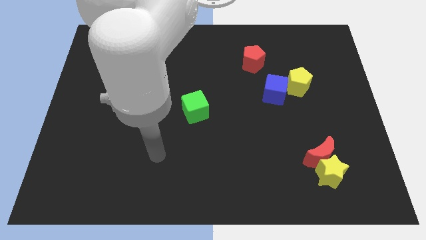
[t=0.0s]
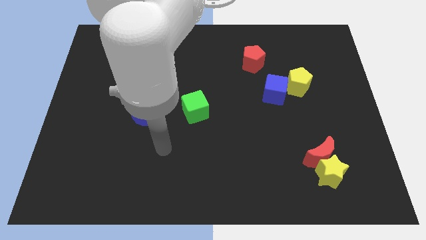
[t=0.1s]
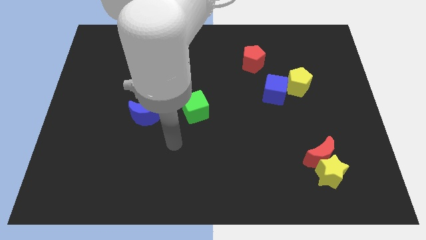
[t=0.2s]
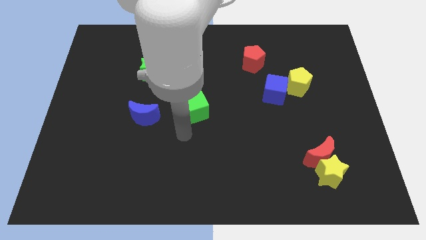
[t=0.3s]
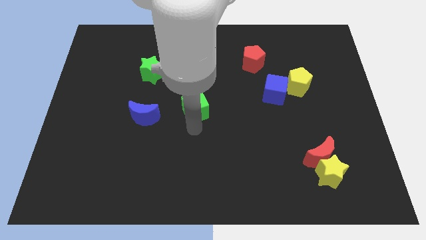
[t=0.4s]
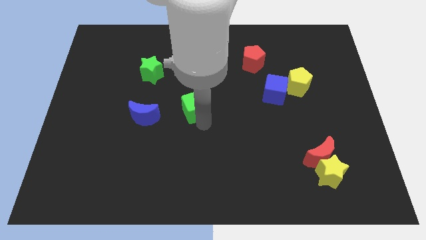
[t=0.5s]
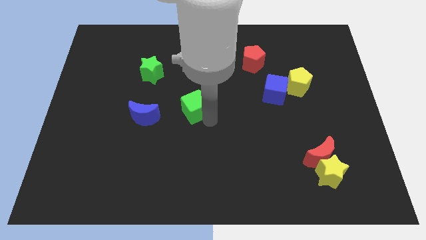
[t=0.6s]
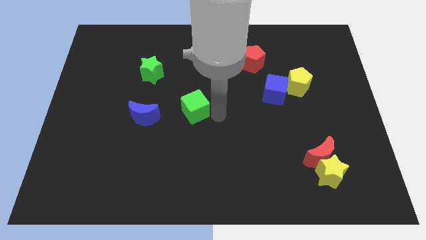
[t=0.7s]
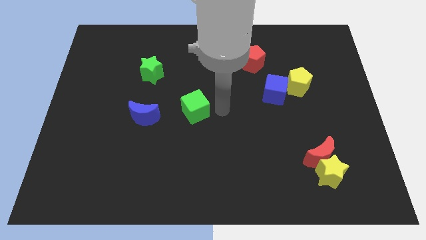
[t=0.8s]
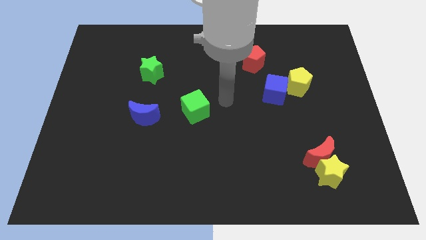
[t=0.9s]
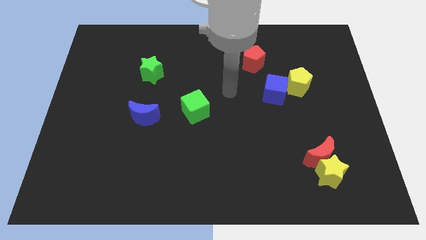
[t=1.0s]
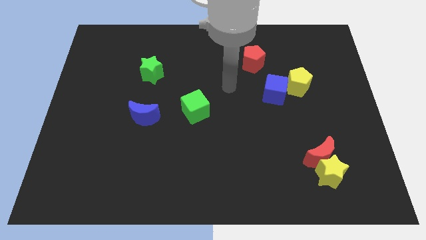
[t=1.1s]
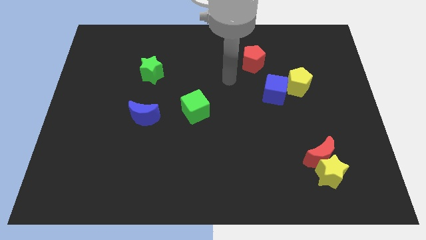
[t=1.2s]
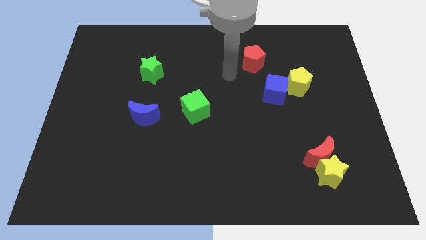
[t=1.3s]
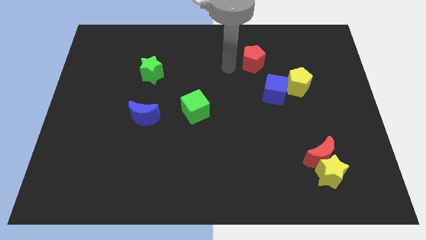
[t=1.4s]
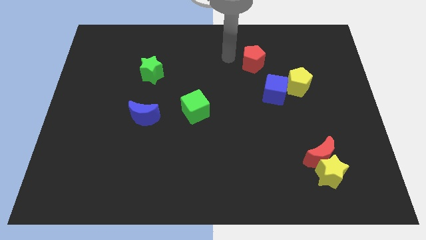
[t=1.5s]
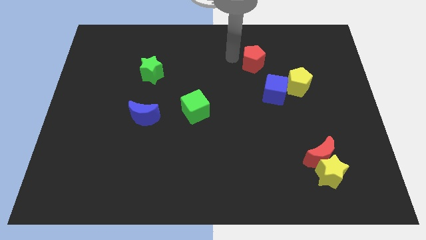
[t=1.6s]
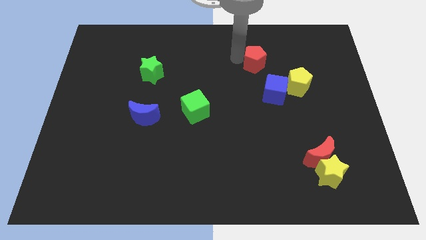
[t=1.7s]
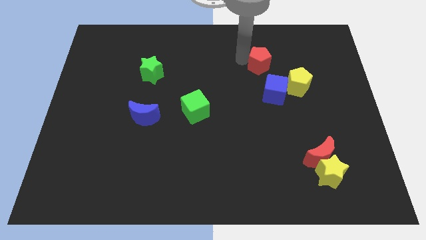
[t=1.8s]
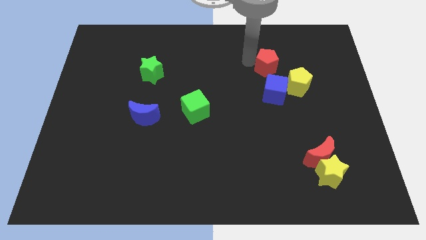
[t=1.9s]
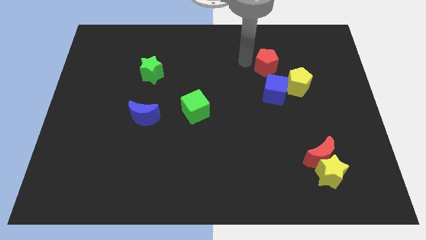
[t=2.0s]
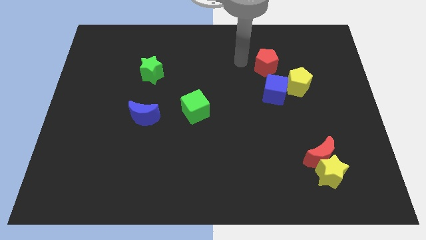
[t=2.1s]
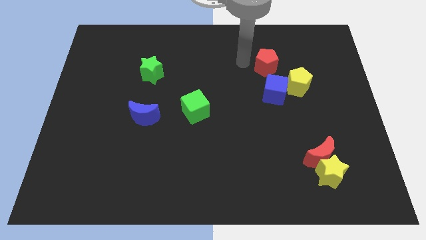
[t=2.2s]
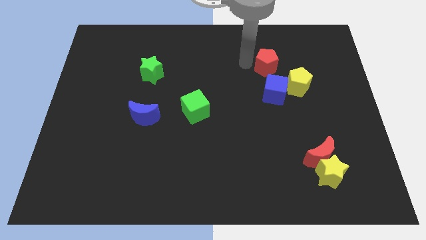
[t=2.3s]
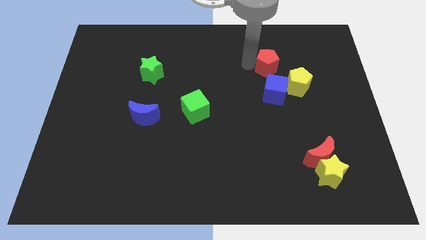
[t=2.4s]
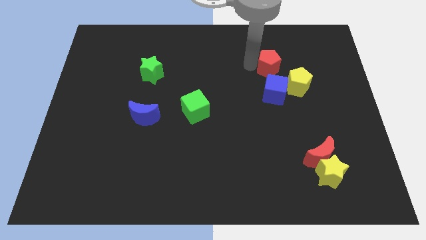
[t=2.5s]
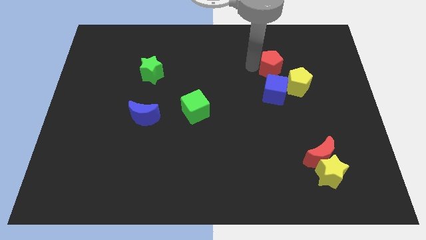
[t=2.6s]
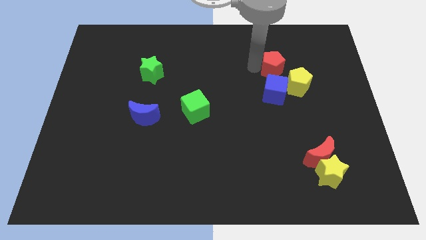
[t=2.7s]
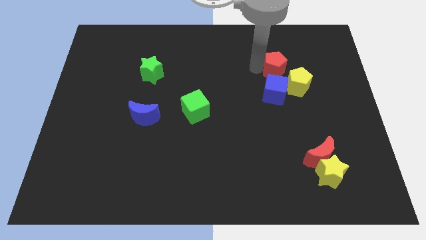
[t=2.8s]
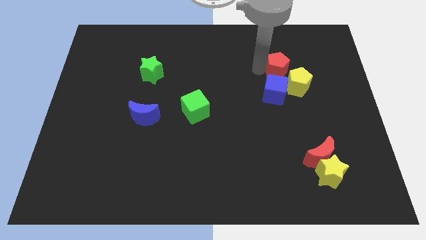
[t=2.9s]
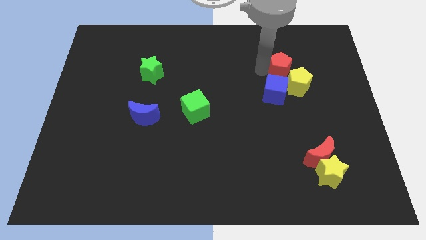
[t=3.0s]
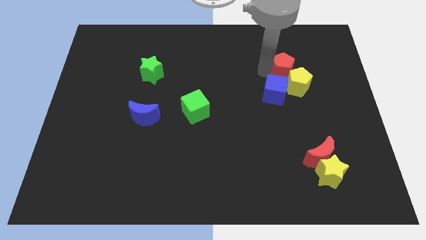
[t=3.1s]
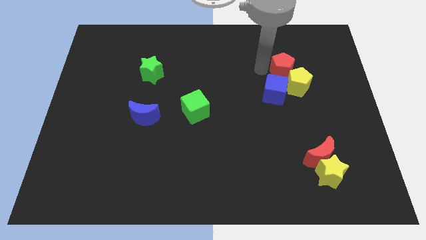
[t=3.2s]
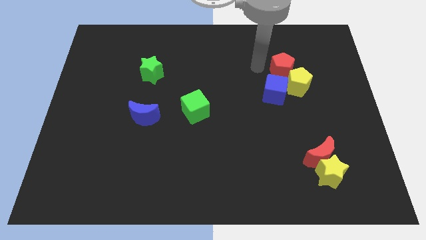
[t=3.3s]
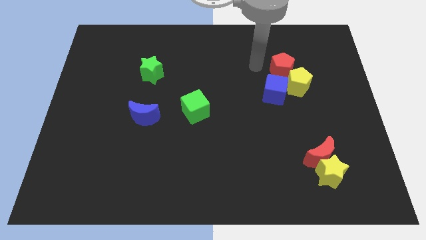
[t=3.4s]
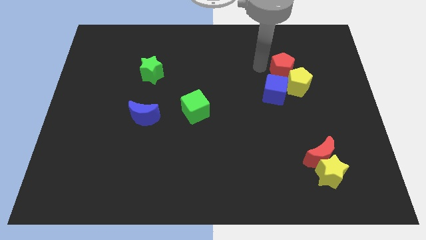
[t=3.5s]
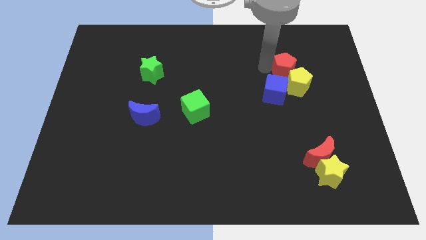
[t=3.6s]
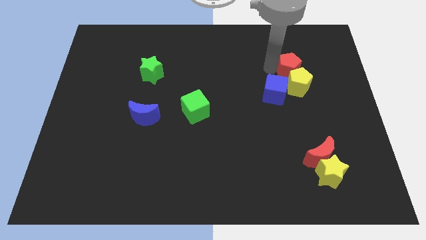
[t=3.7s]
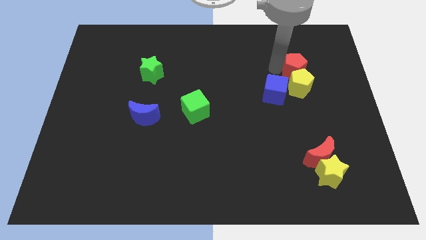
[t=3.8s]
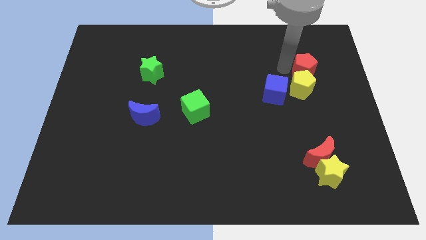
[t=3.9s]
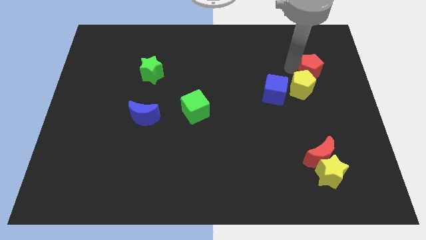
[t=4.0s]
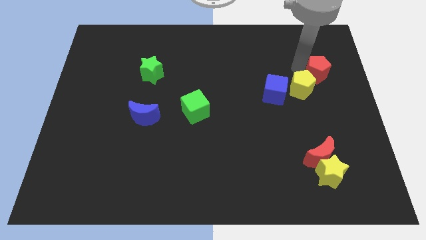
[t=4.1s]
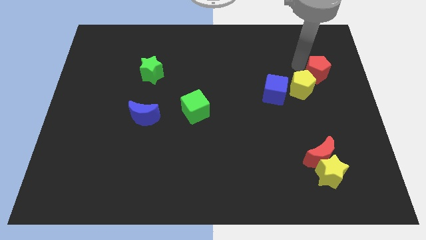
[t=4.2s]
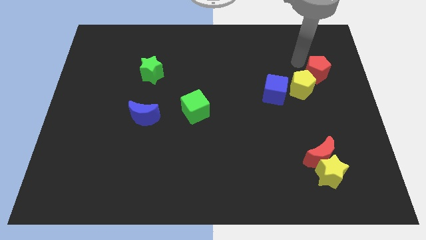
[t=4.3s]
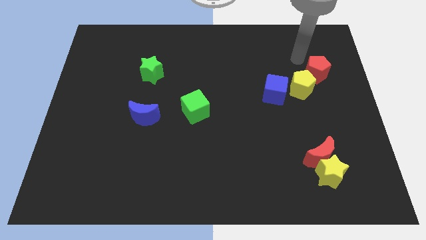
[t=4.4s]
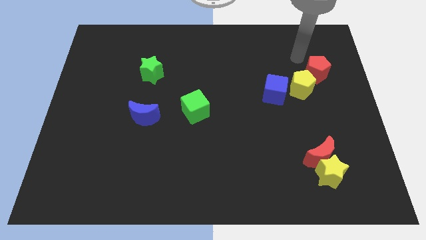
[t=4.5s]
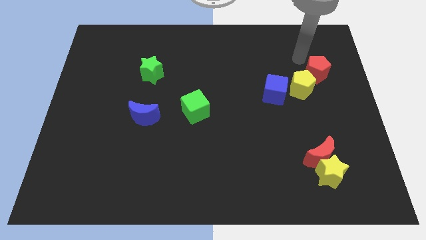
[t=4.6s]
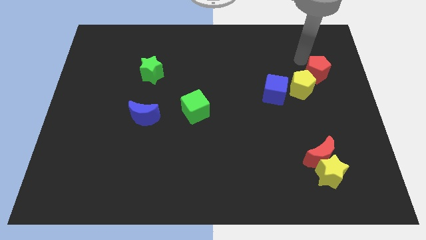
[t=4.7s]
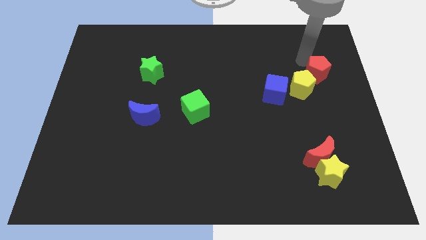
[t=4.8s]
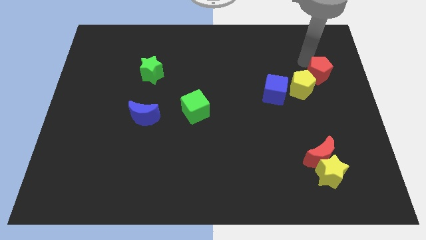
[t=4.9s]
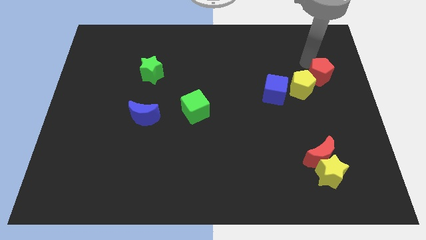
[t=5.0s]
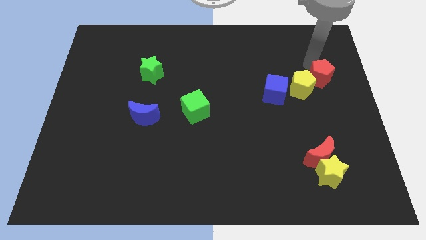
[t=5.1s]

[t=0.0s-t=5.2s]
move the red pentagon to the right side

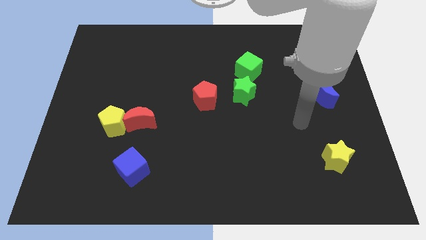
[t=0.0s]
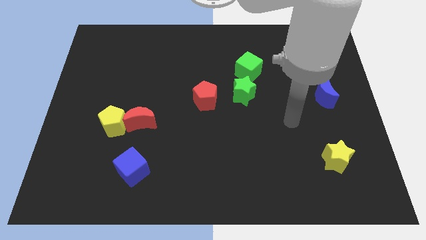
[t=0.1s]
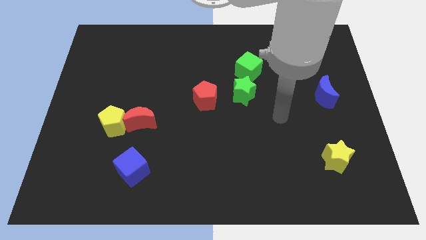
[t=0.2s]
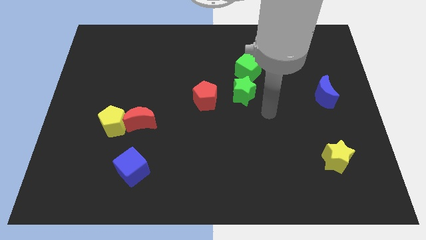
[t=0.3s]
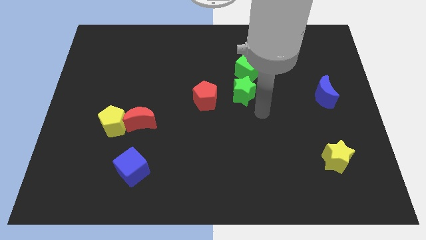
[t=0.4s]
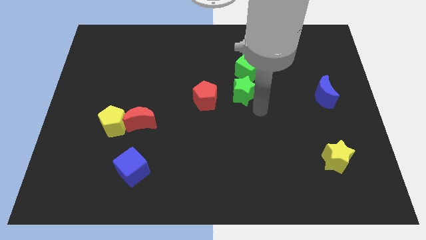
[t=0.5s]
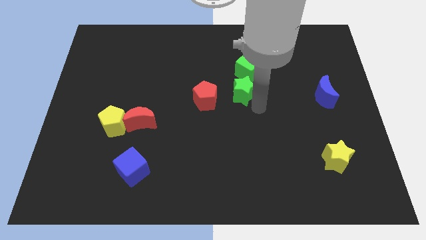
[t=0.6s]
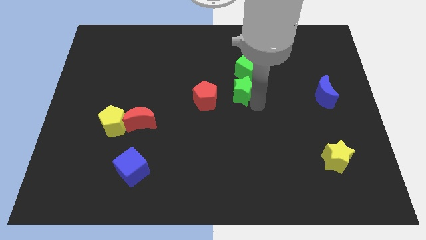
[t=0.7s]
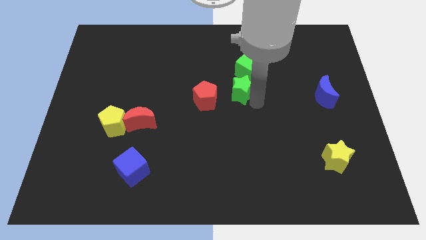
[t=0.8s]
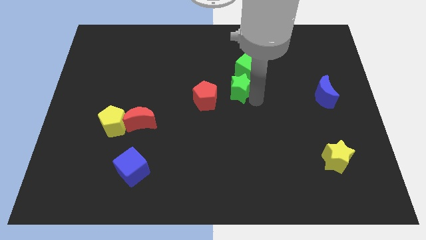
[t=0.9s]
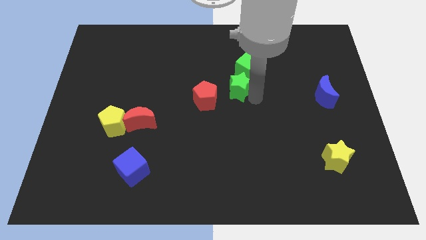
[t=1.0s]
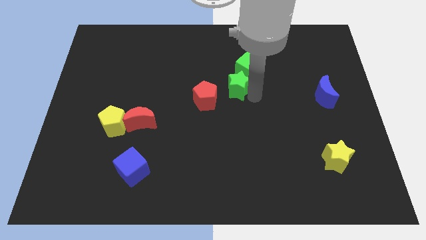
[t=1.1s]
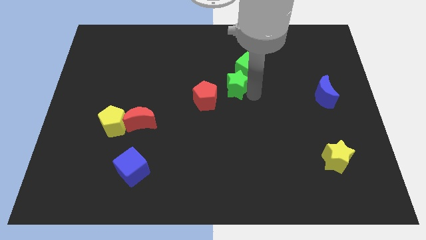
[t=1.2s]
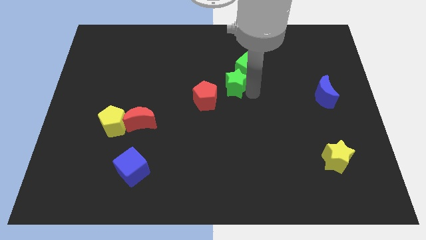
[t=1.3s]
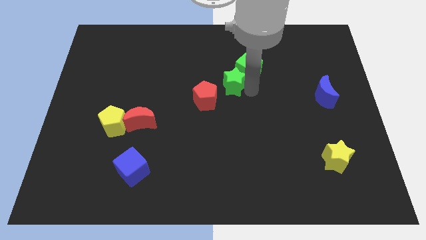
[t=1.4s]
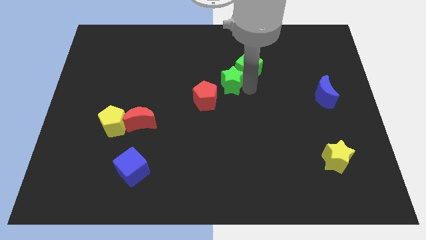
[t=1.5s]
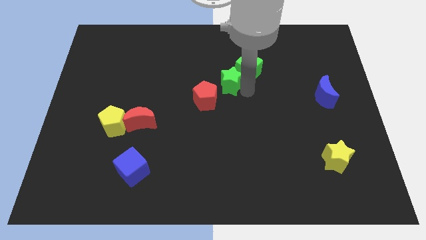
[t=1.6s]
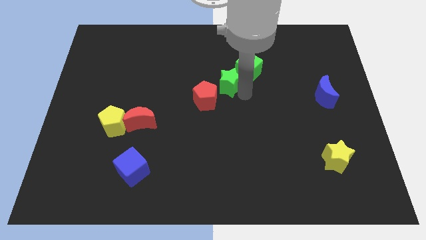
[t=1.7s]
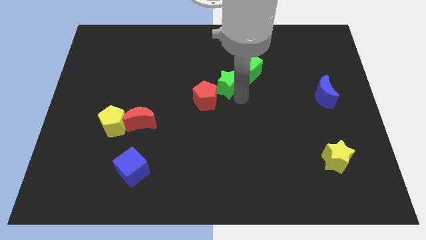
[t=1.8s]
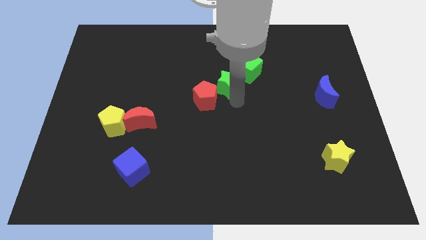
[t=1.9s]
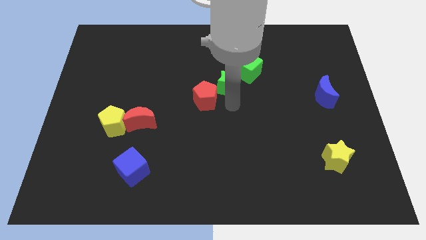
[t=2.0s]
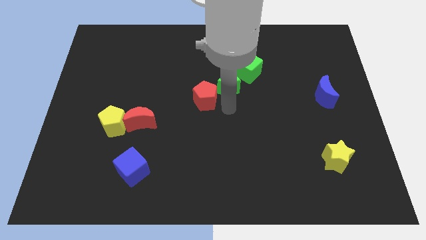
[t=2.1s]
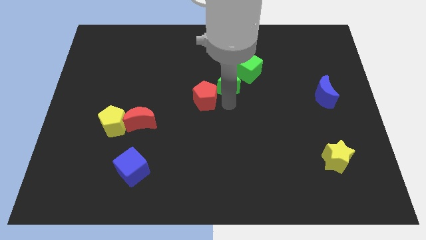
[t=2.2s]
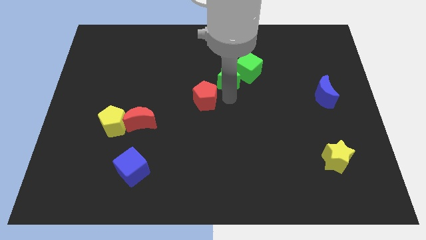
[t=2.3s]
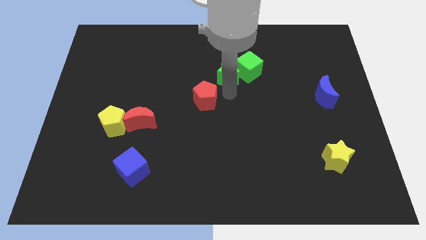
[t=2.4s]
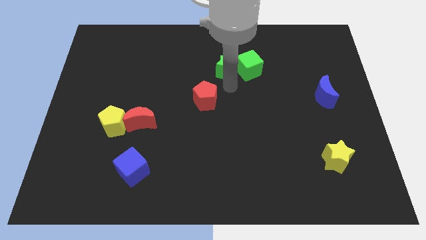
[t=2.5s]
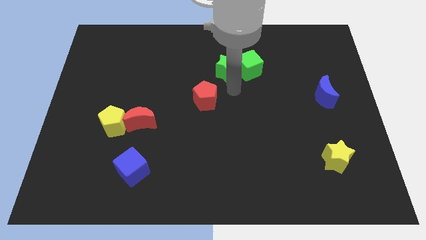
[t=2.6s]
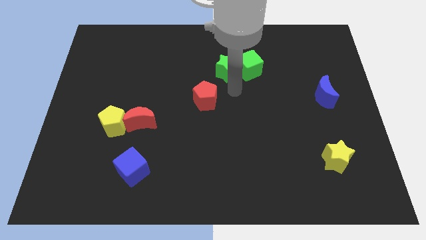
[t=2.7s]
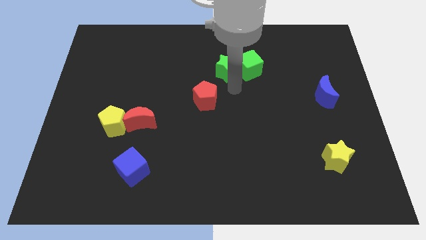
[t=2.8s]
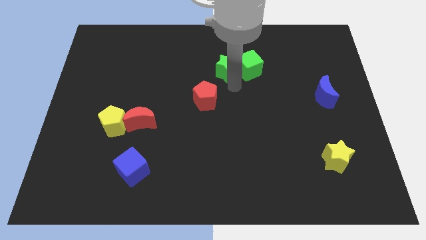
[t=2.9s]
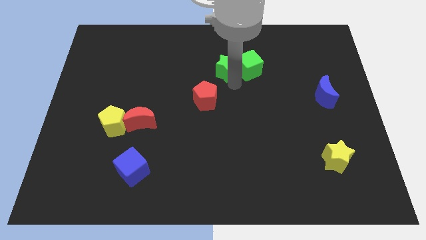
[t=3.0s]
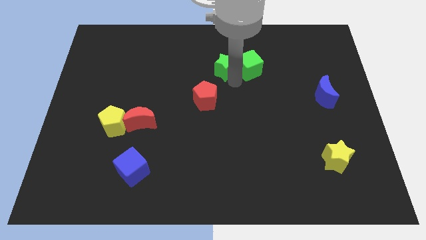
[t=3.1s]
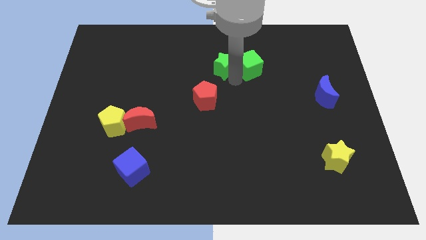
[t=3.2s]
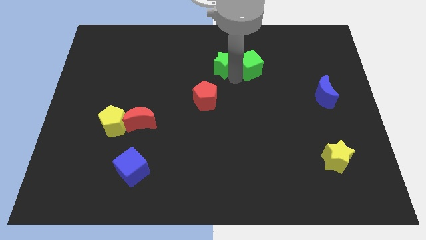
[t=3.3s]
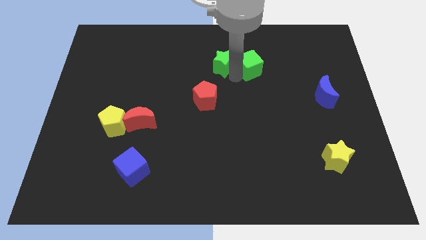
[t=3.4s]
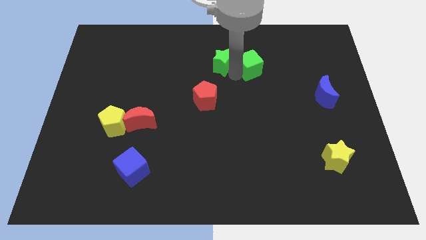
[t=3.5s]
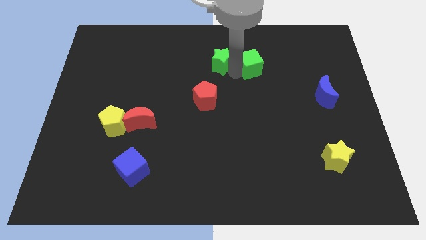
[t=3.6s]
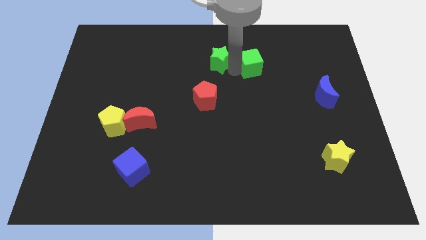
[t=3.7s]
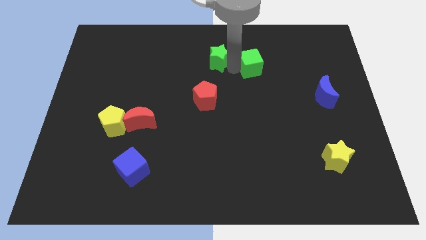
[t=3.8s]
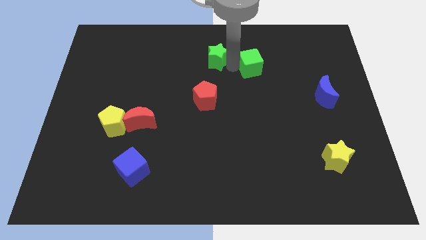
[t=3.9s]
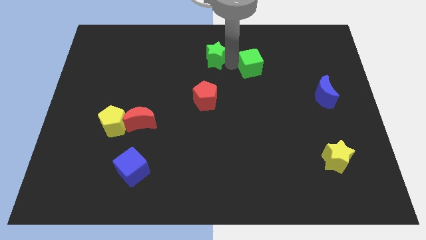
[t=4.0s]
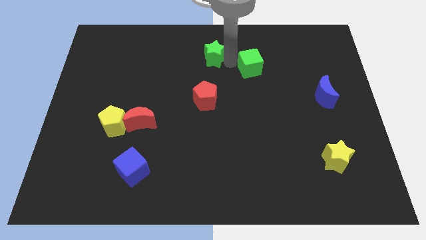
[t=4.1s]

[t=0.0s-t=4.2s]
push the green star to the towards your base
